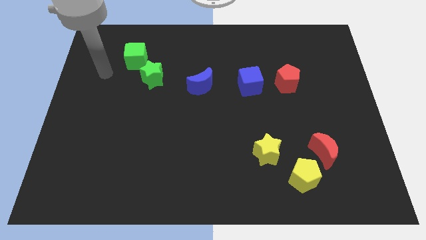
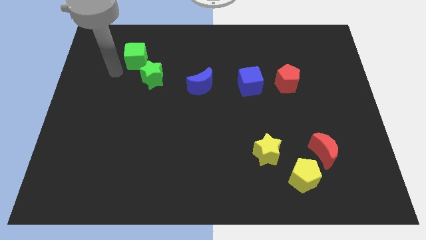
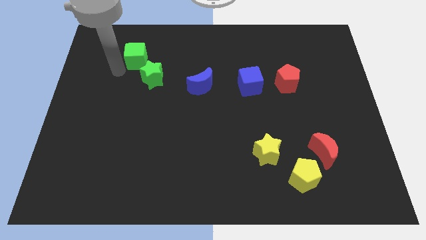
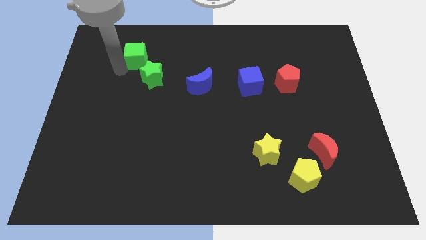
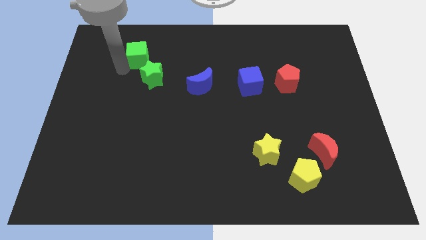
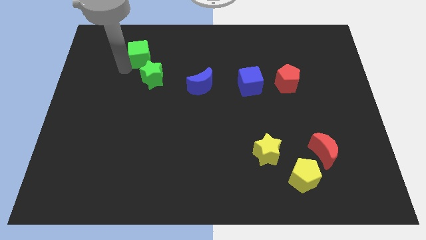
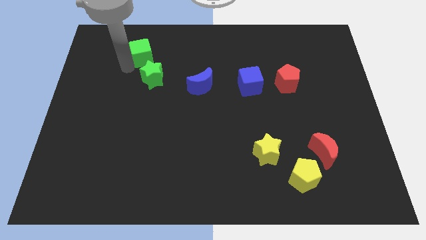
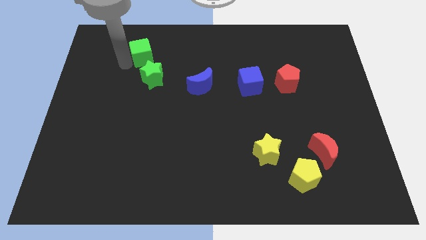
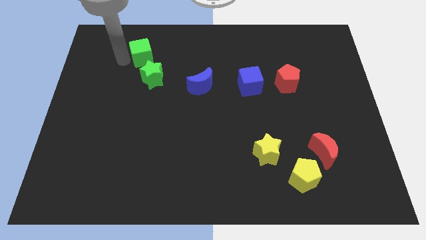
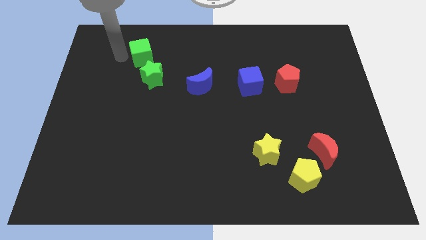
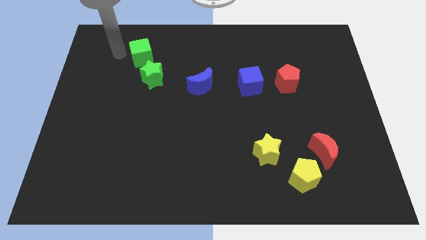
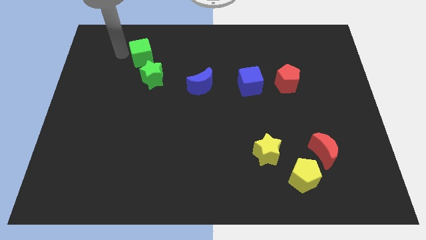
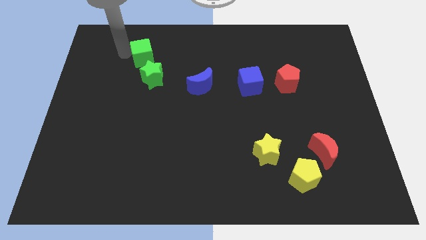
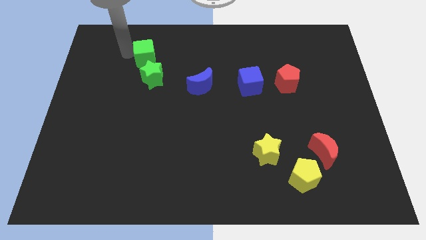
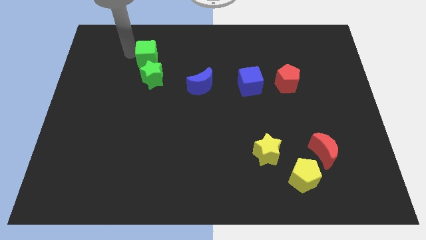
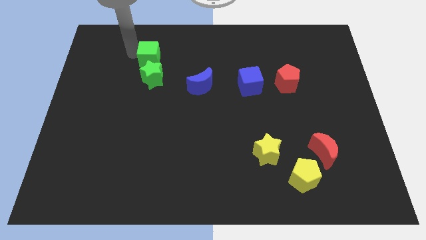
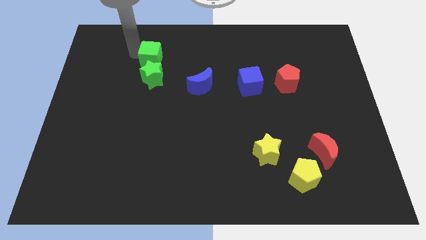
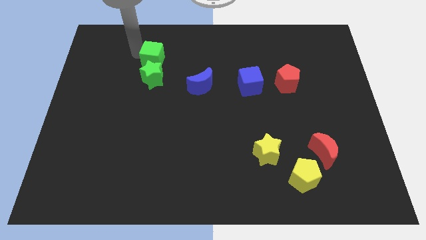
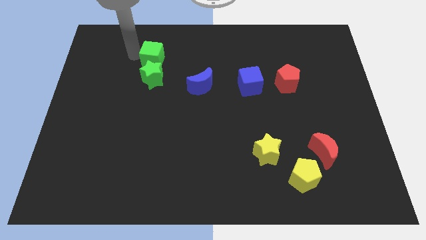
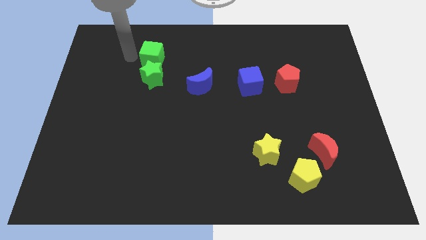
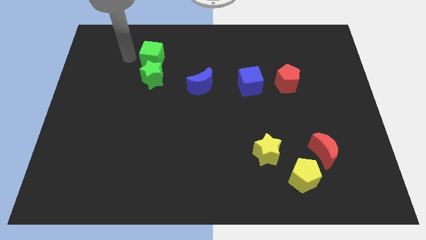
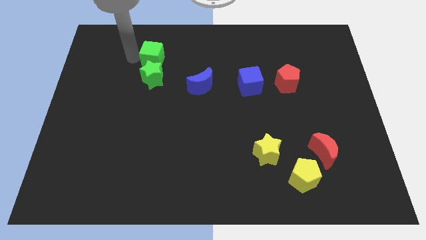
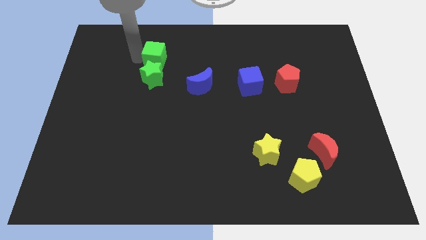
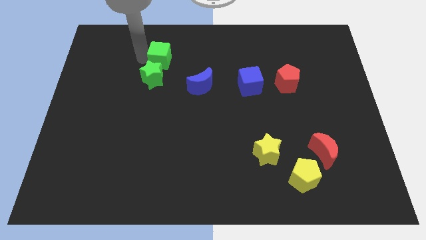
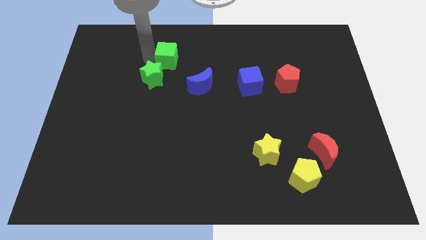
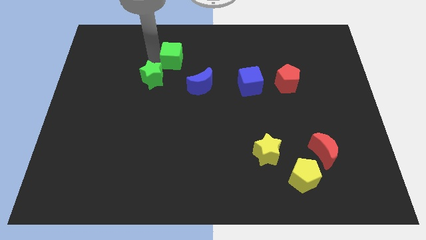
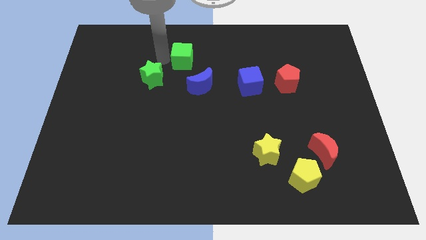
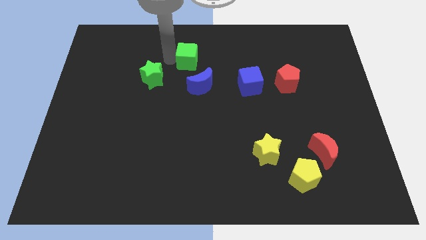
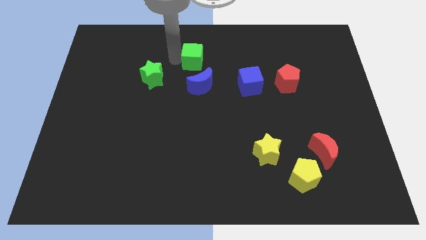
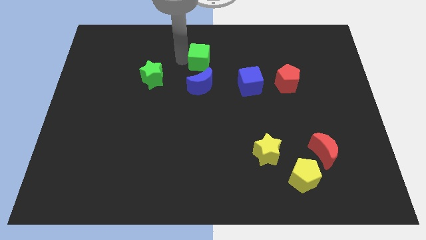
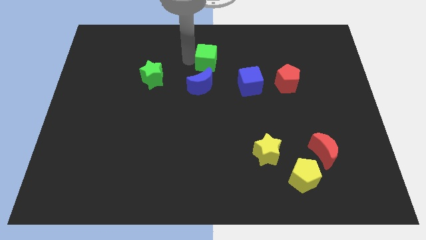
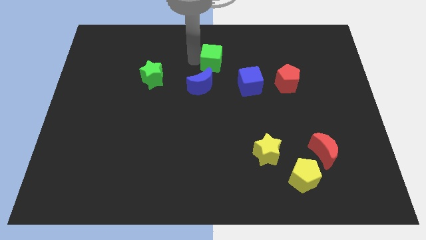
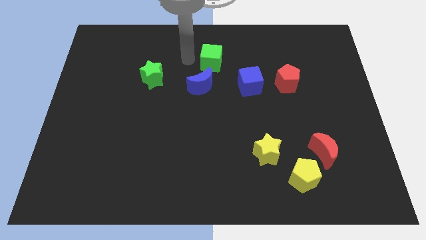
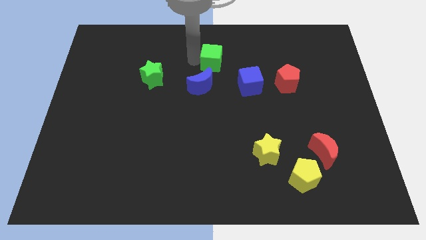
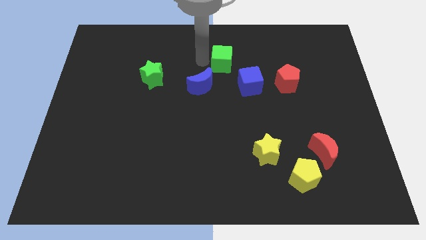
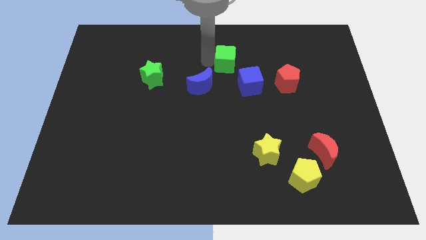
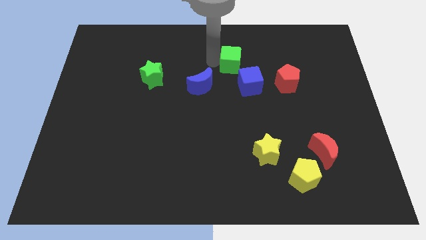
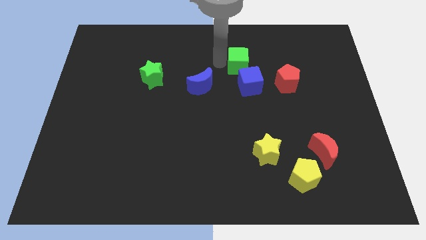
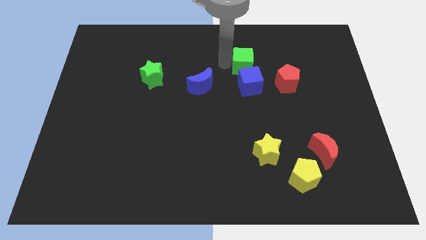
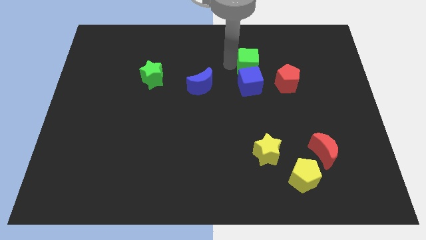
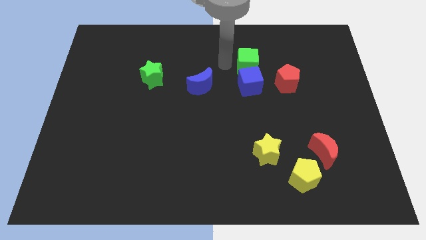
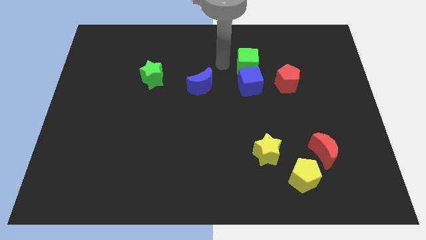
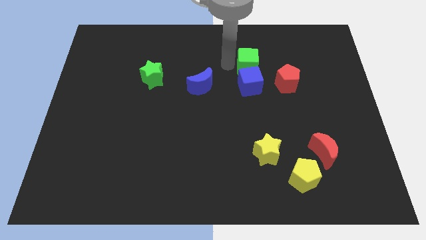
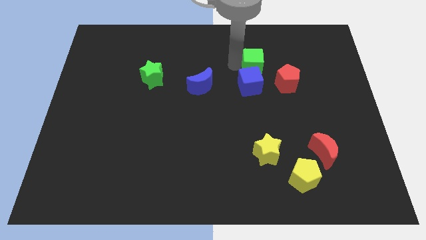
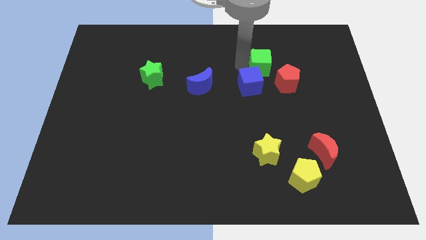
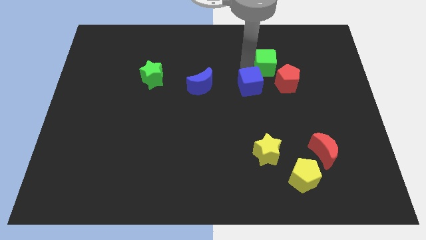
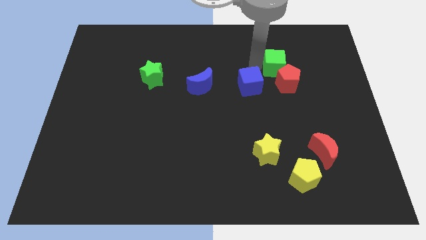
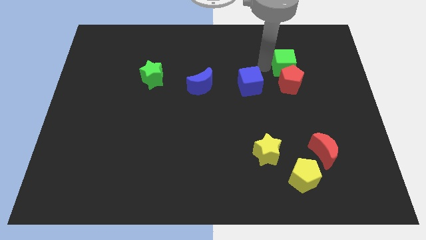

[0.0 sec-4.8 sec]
push the green cube to the top right side of the red pentagon

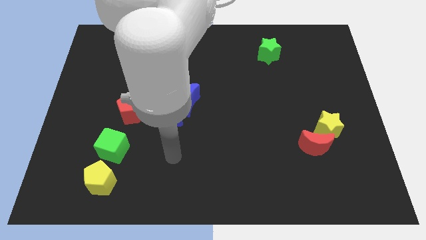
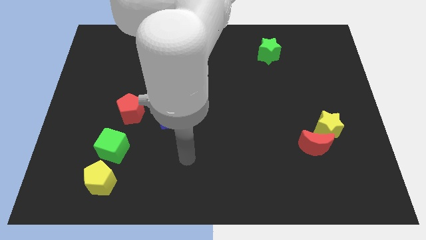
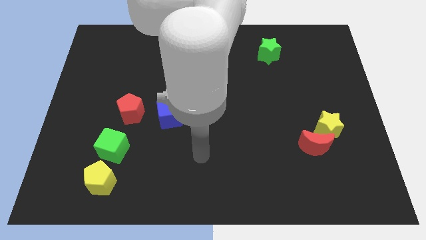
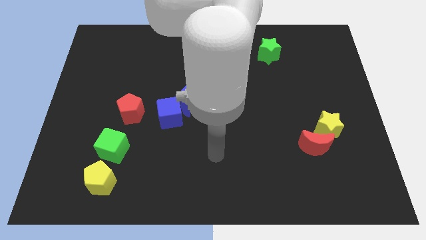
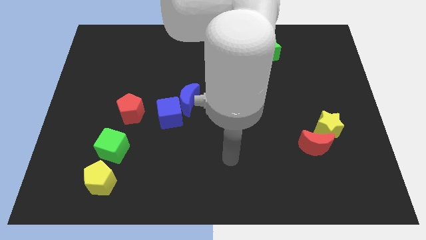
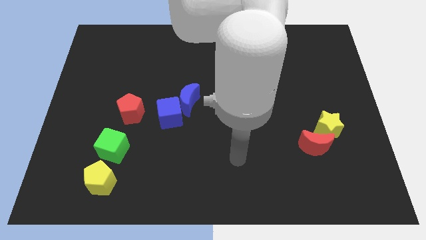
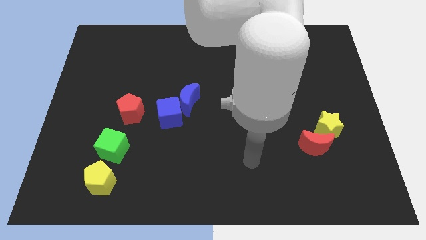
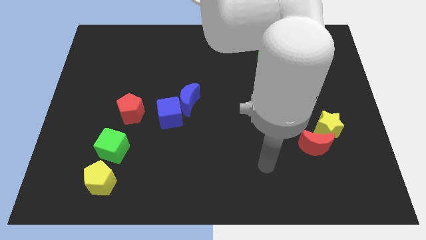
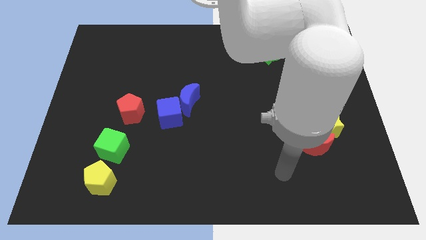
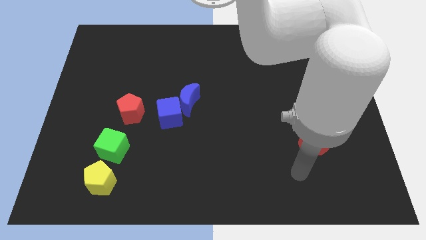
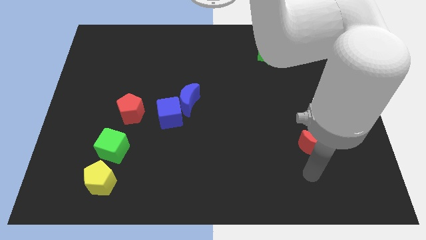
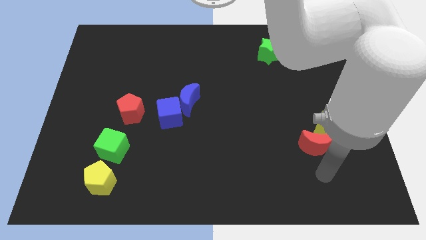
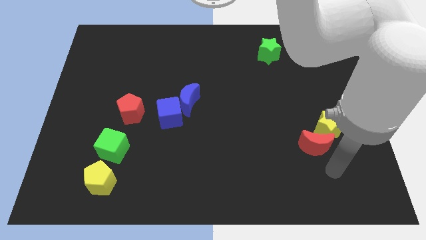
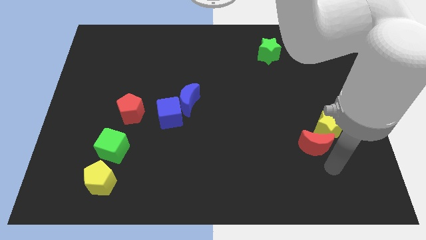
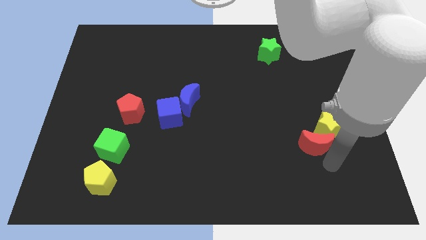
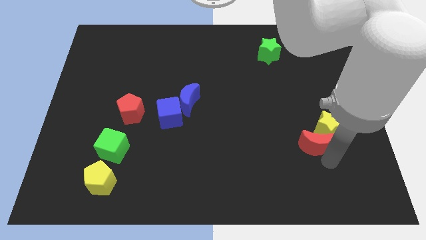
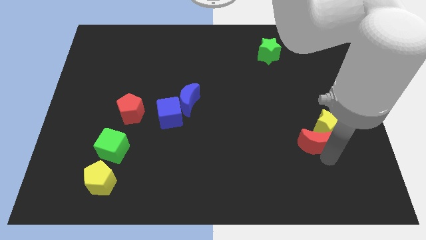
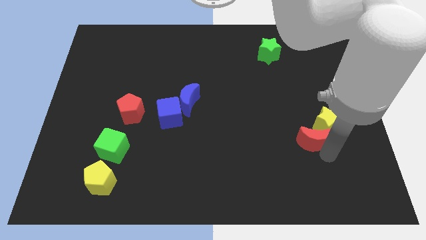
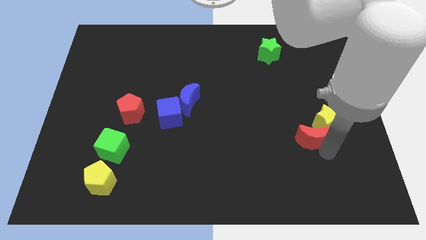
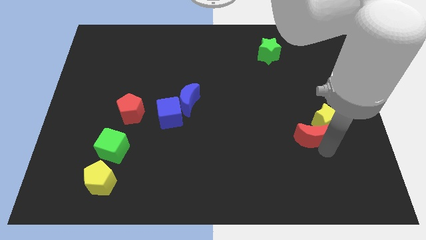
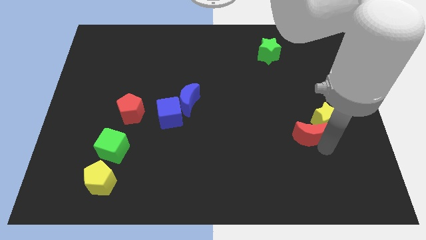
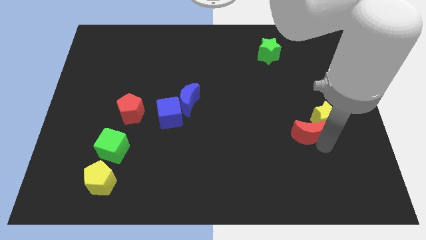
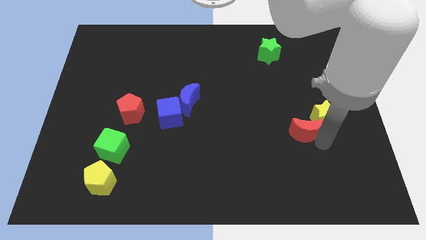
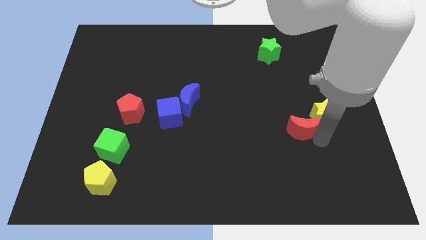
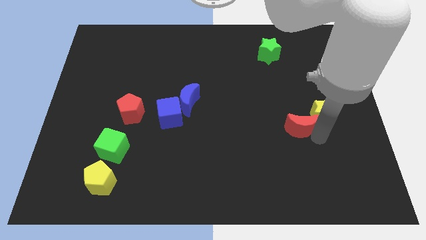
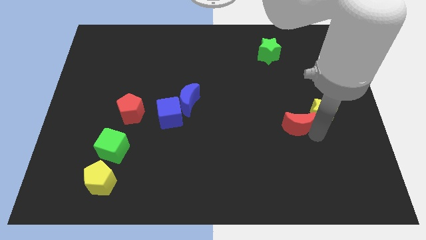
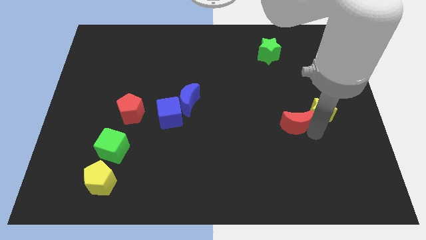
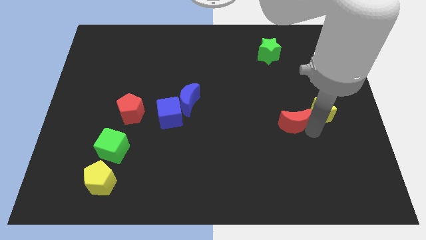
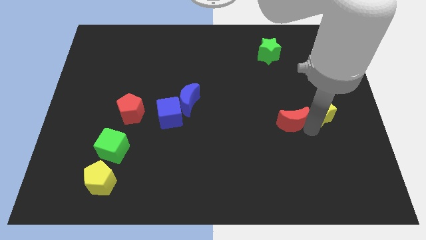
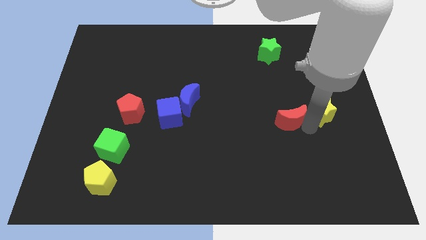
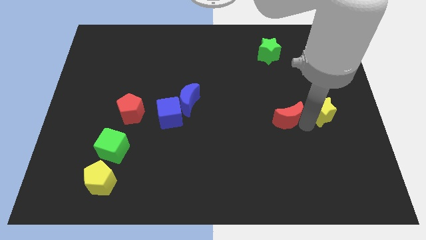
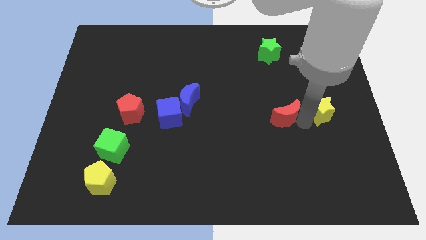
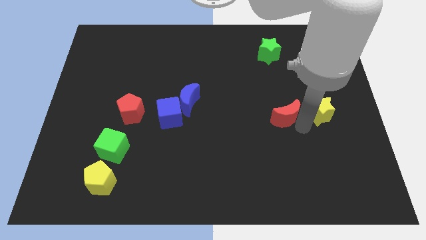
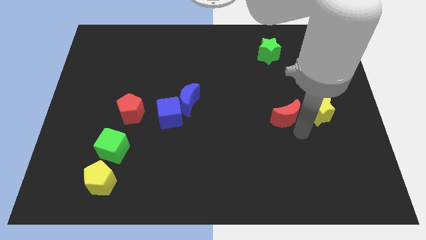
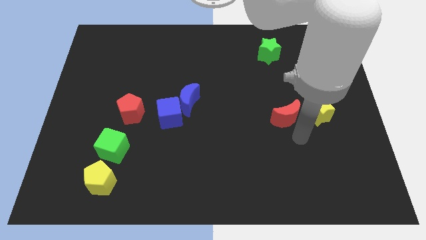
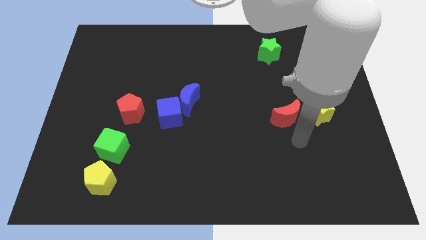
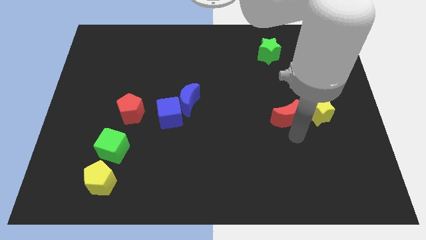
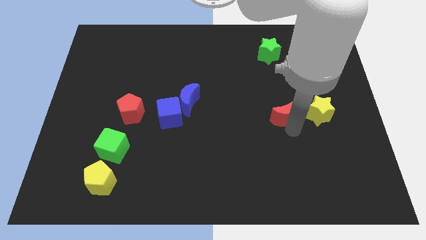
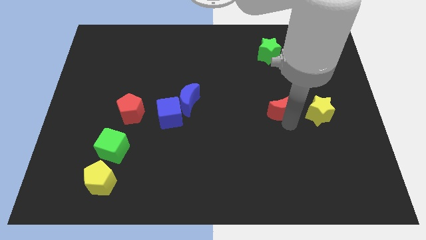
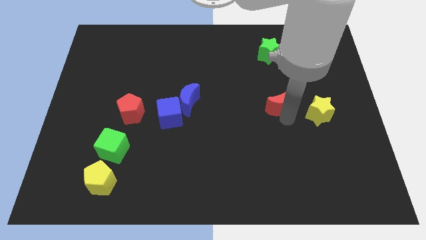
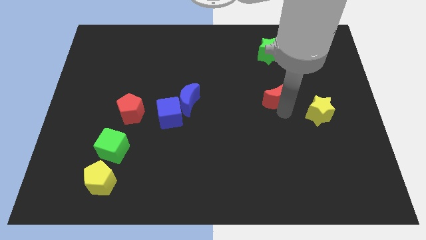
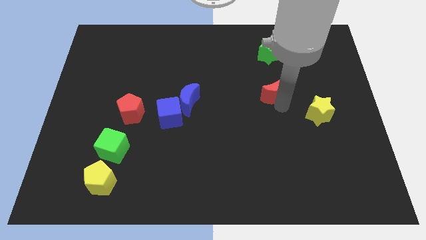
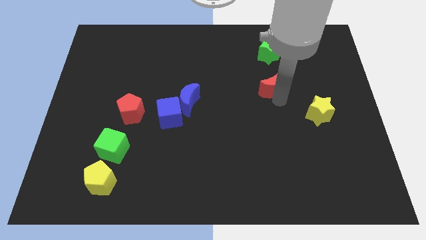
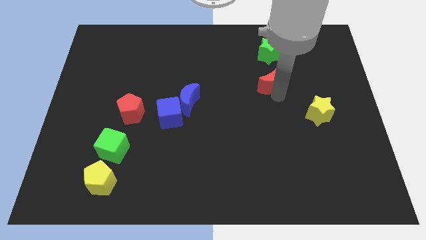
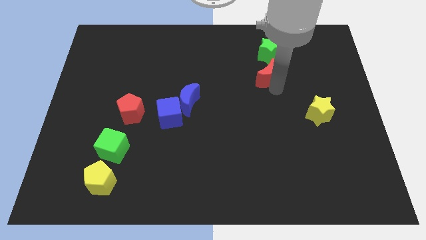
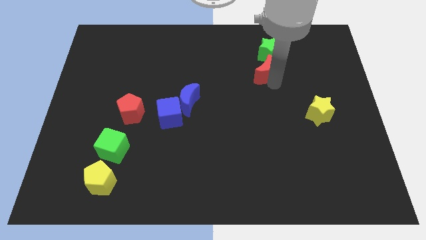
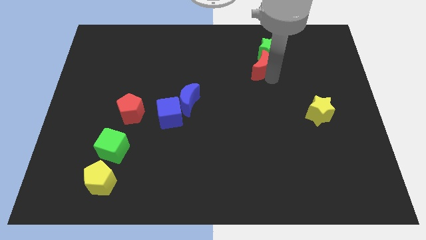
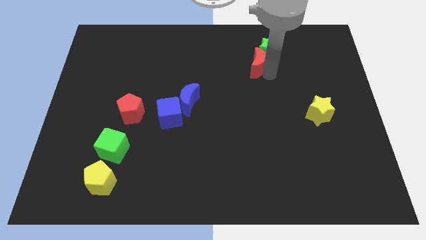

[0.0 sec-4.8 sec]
slide the red moon to the left of the green star
